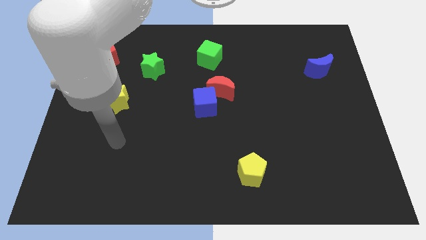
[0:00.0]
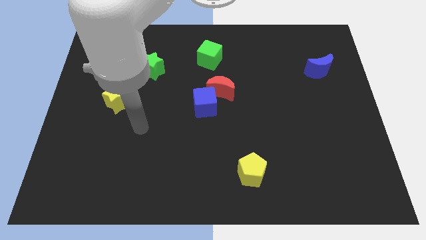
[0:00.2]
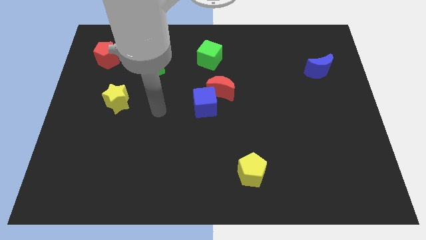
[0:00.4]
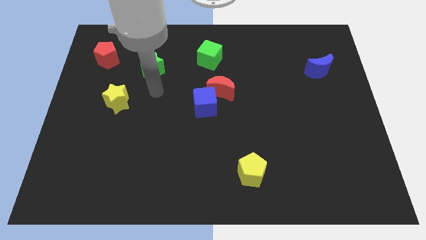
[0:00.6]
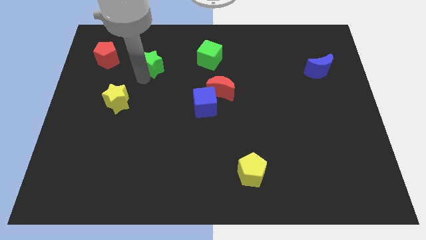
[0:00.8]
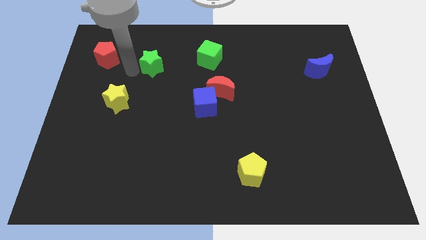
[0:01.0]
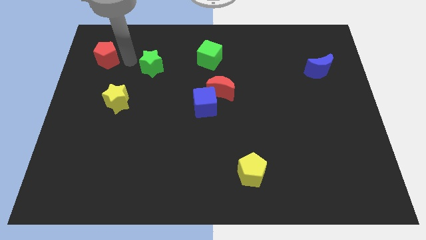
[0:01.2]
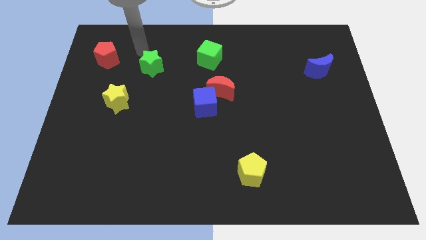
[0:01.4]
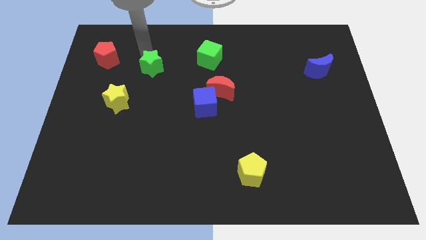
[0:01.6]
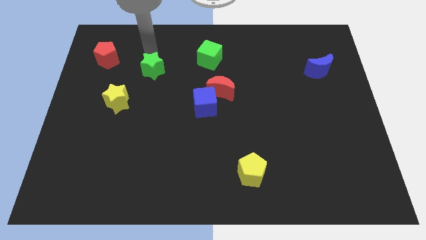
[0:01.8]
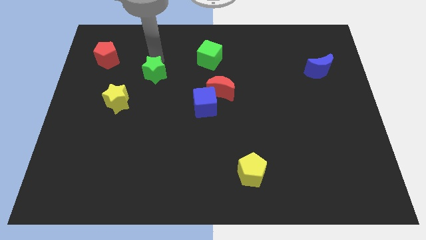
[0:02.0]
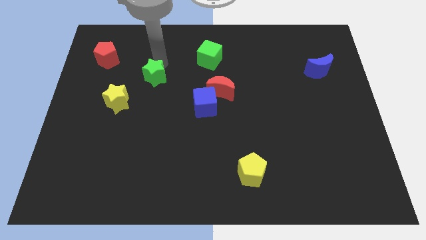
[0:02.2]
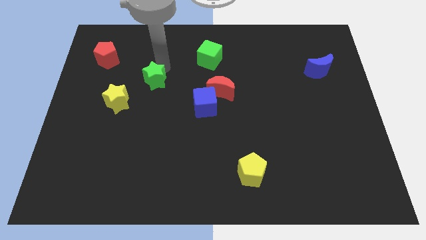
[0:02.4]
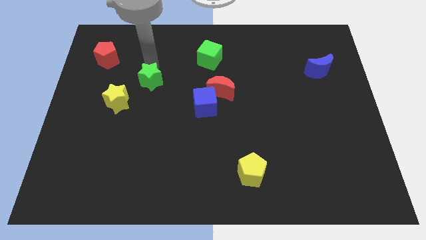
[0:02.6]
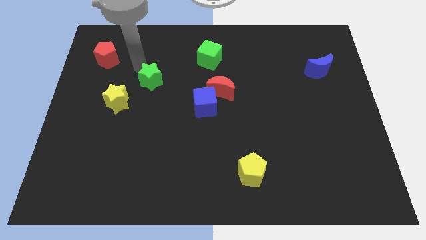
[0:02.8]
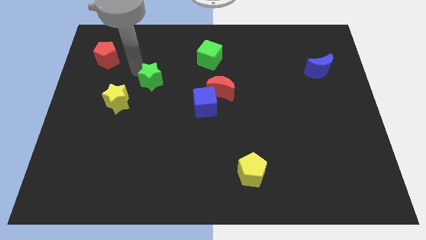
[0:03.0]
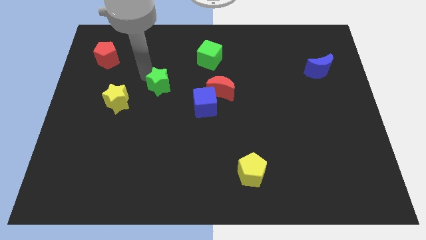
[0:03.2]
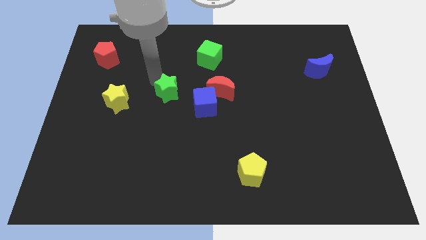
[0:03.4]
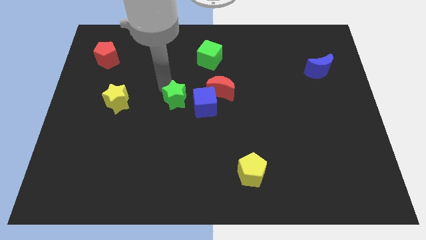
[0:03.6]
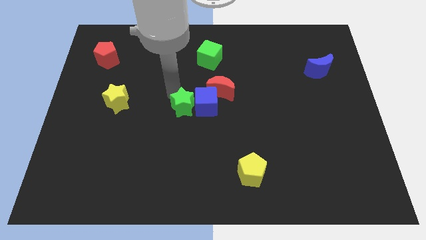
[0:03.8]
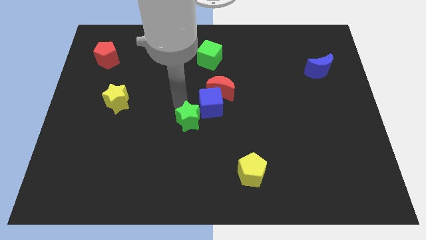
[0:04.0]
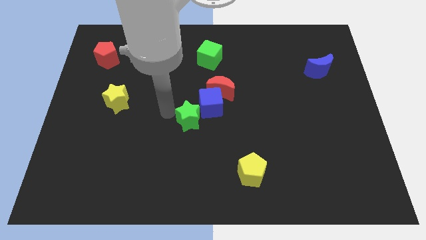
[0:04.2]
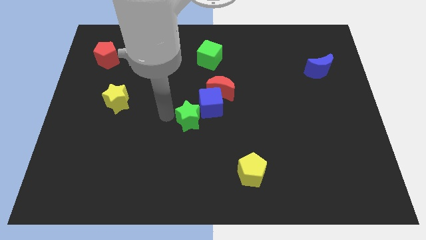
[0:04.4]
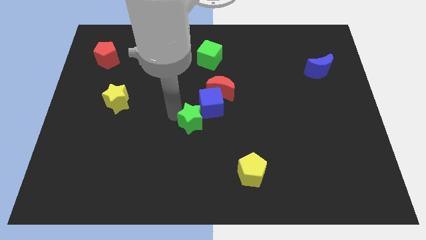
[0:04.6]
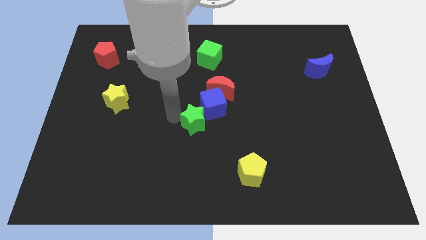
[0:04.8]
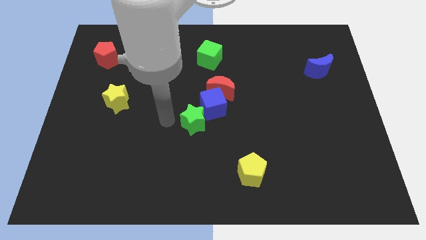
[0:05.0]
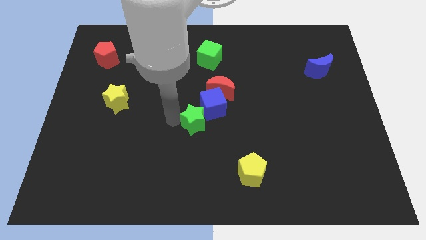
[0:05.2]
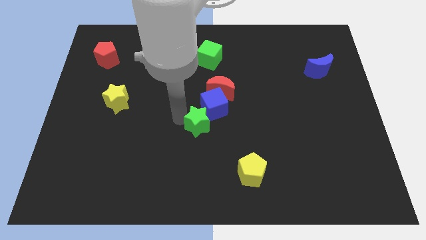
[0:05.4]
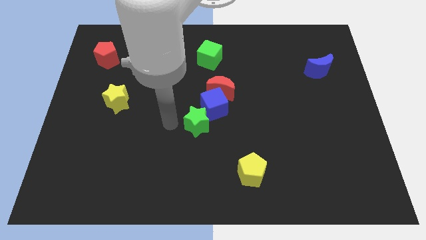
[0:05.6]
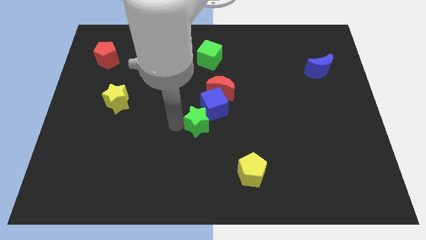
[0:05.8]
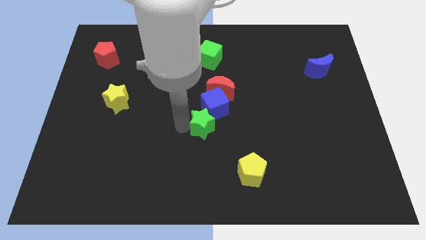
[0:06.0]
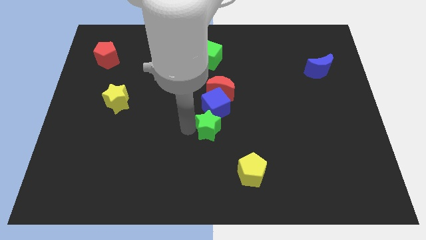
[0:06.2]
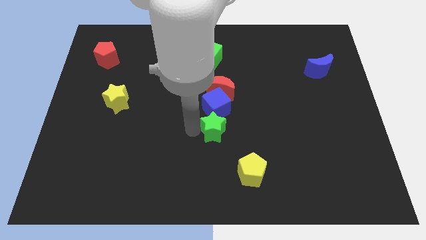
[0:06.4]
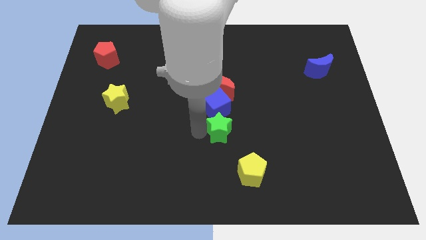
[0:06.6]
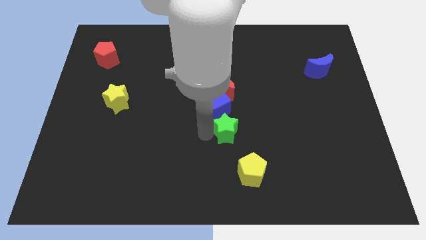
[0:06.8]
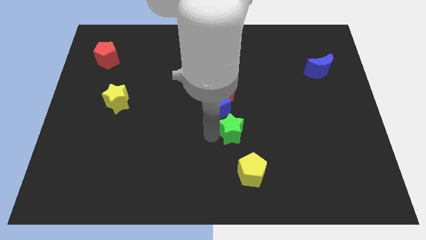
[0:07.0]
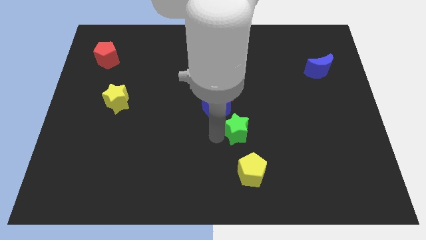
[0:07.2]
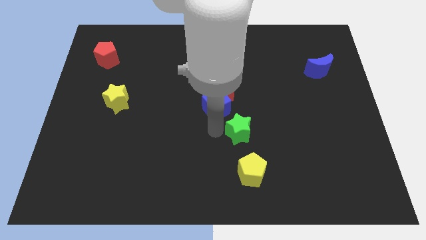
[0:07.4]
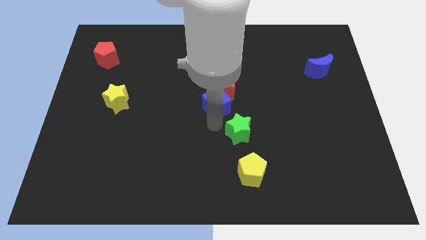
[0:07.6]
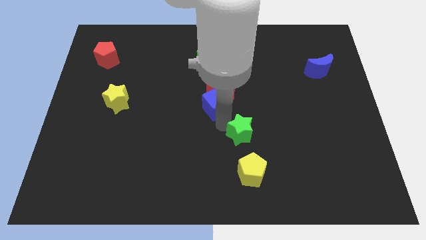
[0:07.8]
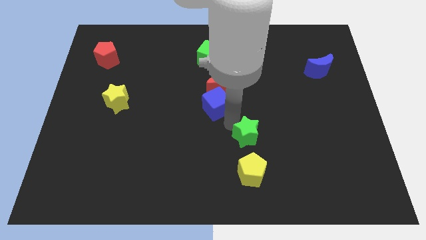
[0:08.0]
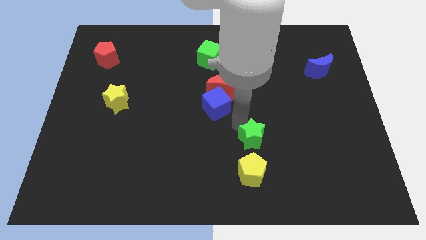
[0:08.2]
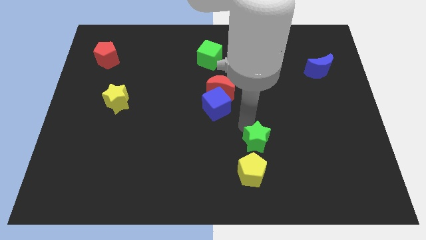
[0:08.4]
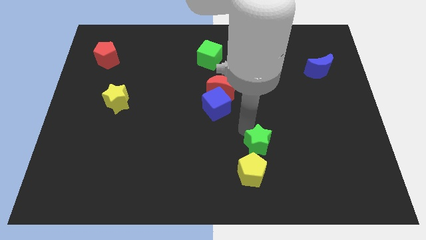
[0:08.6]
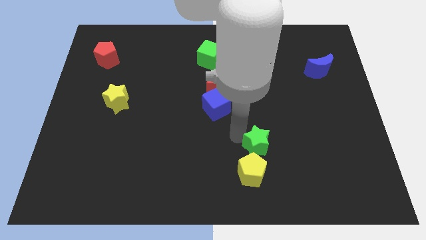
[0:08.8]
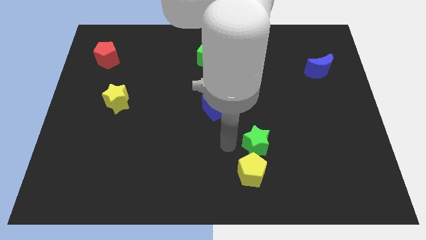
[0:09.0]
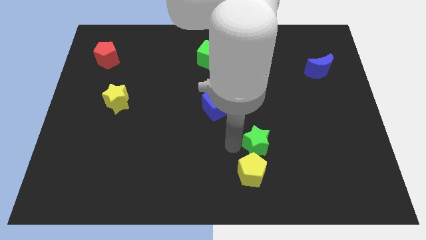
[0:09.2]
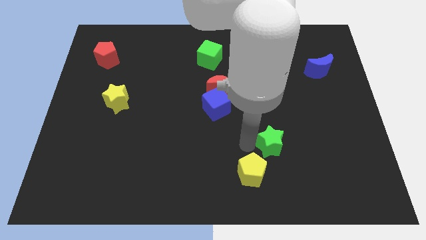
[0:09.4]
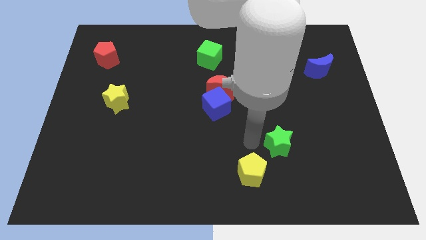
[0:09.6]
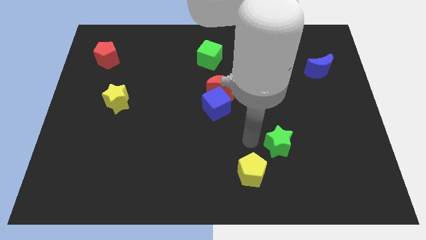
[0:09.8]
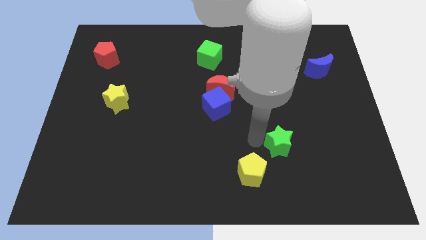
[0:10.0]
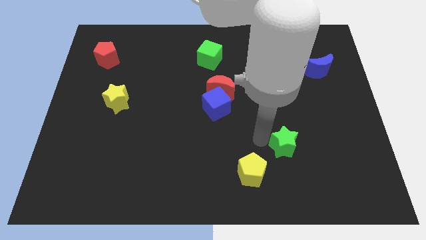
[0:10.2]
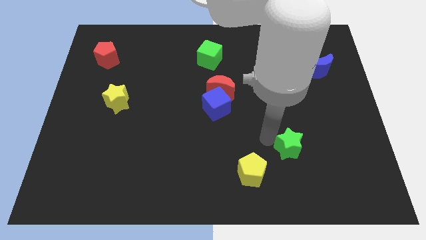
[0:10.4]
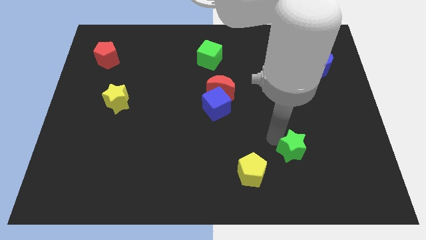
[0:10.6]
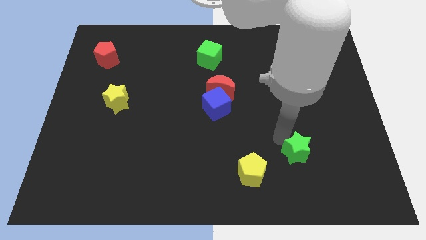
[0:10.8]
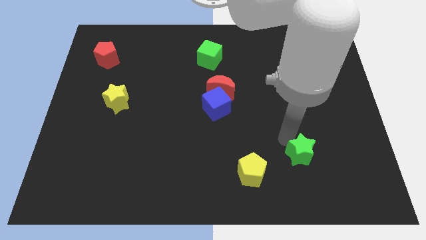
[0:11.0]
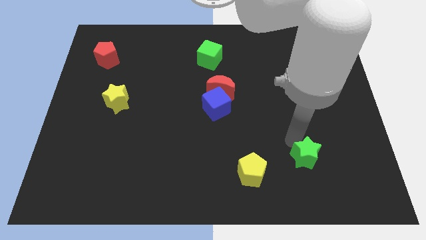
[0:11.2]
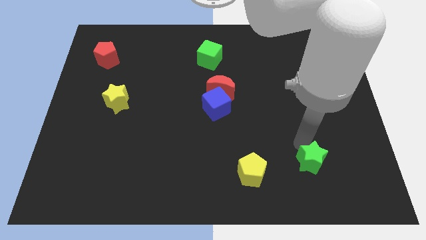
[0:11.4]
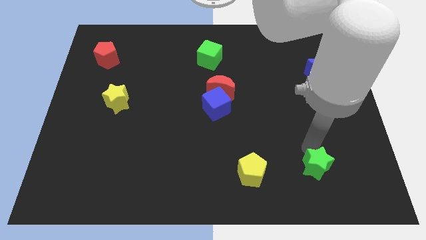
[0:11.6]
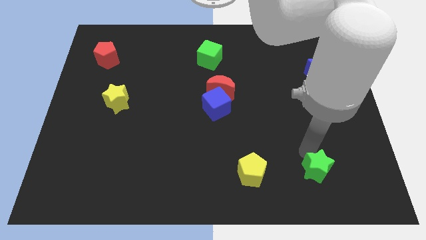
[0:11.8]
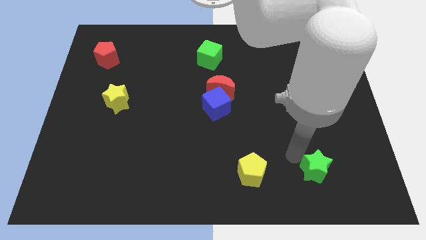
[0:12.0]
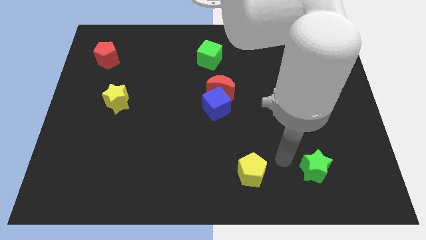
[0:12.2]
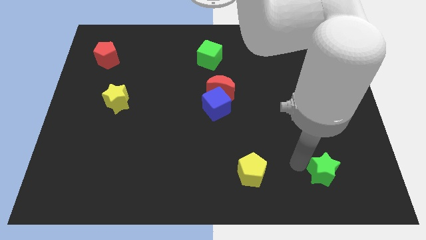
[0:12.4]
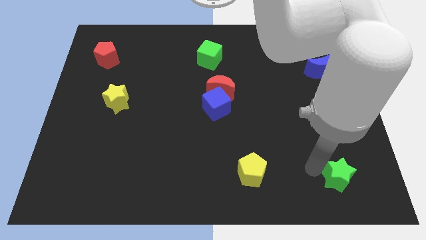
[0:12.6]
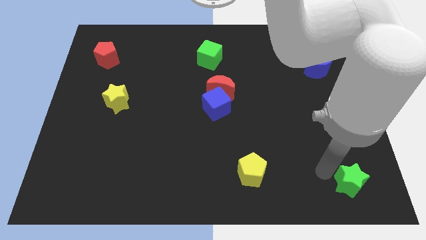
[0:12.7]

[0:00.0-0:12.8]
slide the green star to the lower right corner
